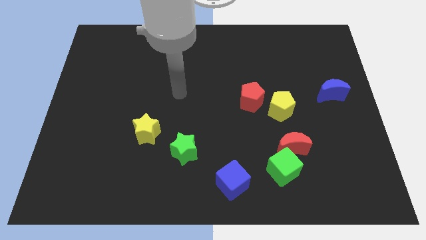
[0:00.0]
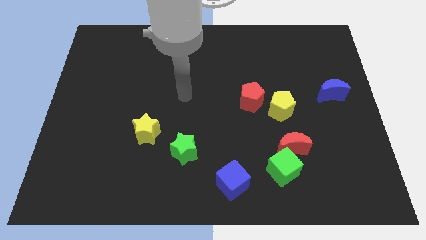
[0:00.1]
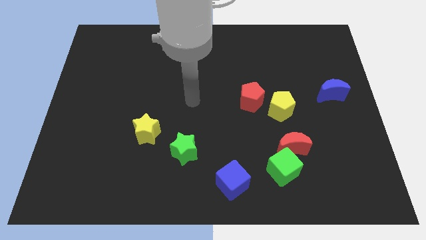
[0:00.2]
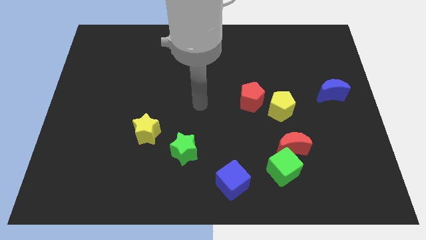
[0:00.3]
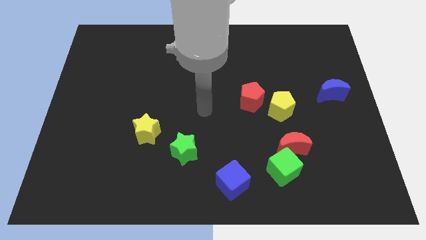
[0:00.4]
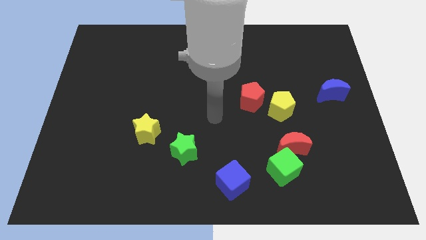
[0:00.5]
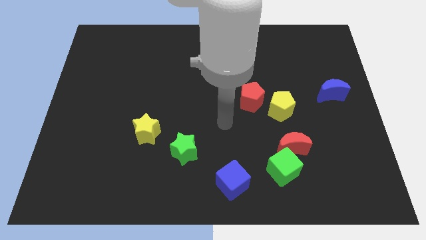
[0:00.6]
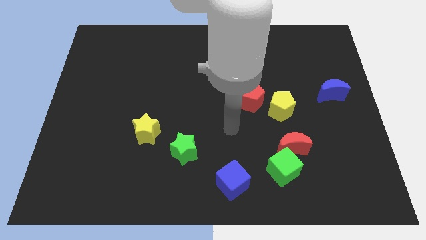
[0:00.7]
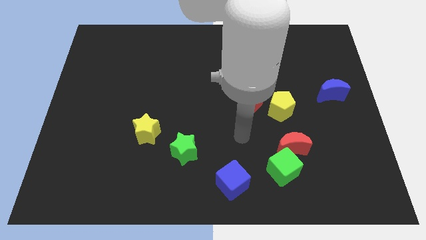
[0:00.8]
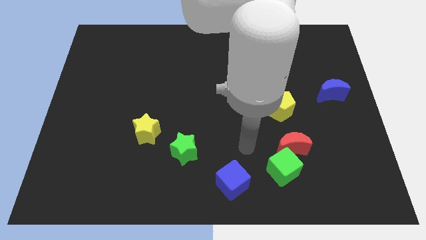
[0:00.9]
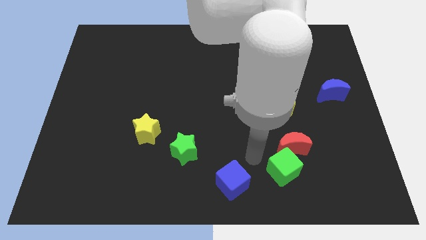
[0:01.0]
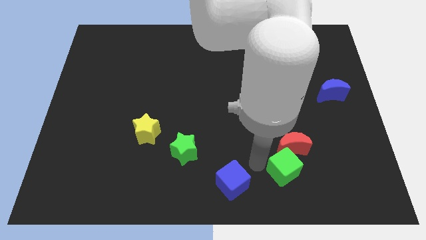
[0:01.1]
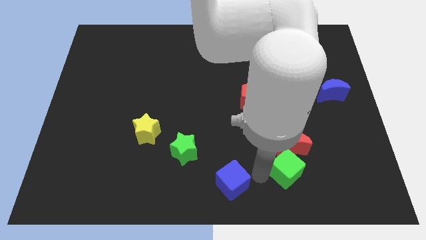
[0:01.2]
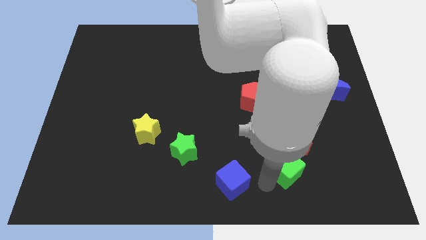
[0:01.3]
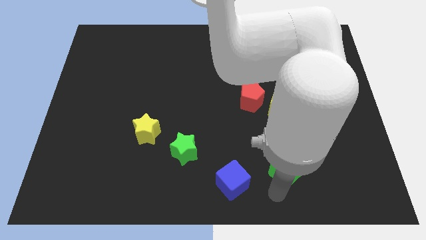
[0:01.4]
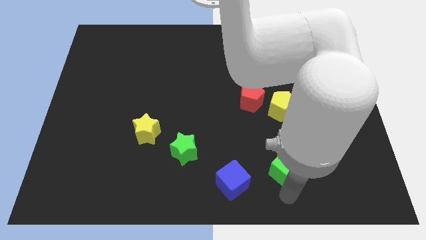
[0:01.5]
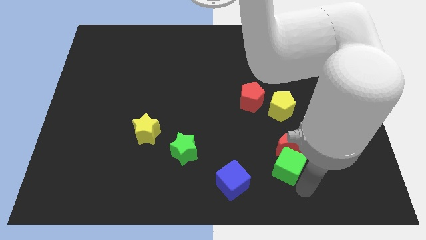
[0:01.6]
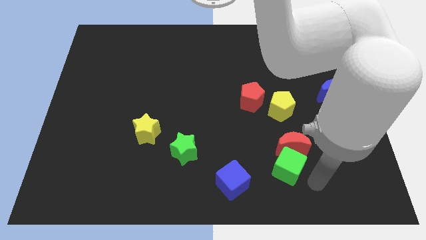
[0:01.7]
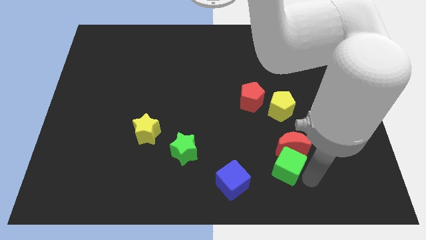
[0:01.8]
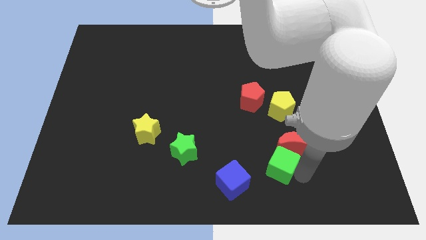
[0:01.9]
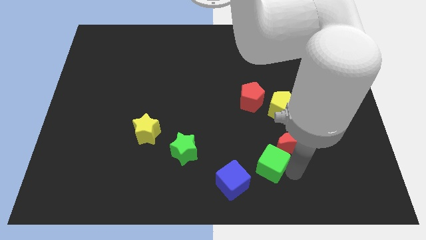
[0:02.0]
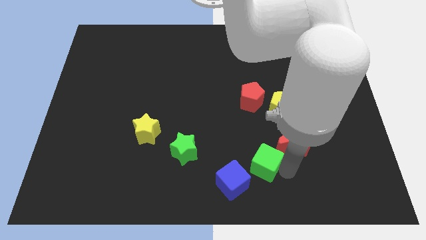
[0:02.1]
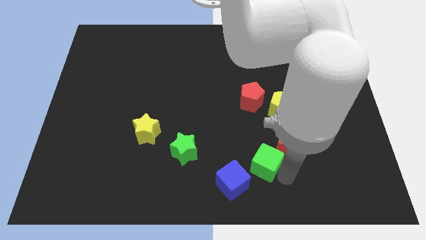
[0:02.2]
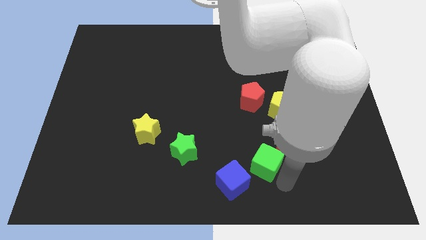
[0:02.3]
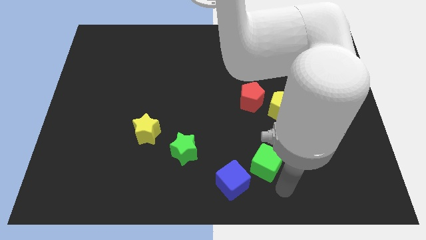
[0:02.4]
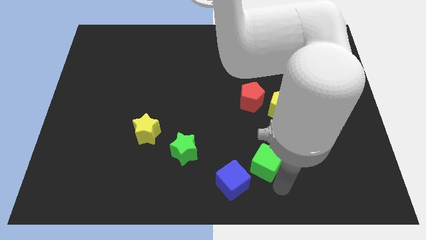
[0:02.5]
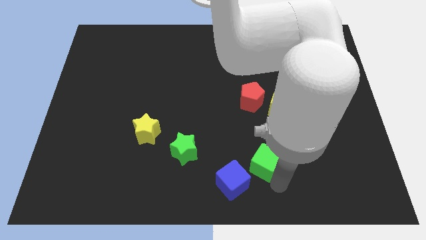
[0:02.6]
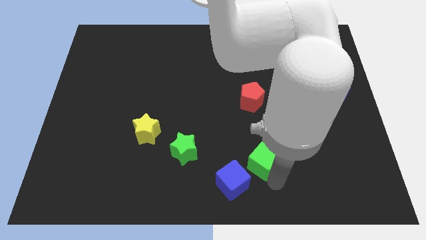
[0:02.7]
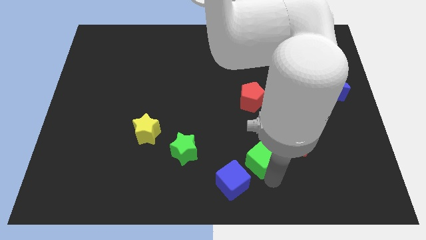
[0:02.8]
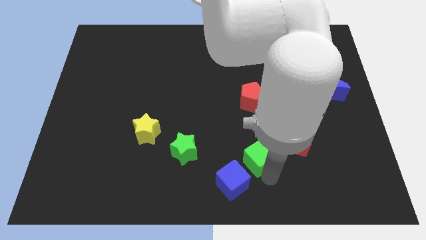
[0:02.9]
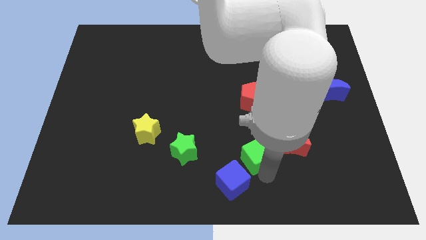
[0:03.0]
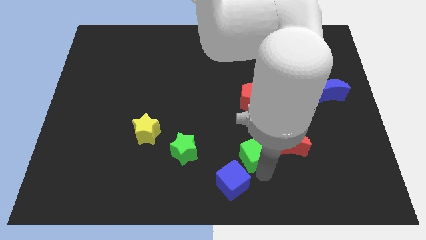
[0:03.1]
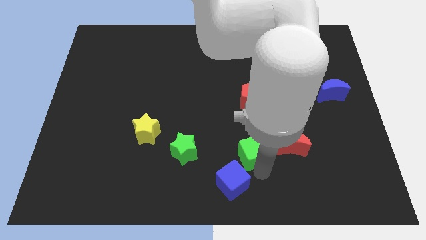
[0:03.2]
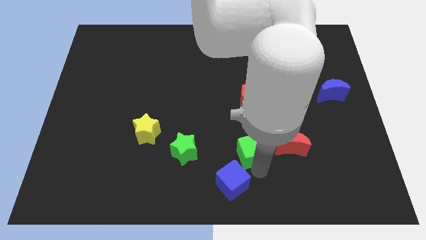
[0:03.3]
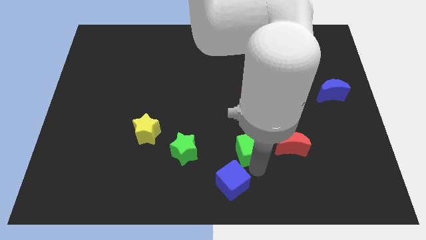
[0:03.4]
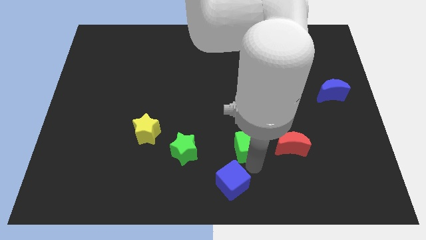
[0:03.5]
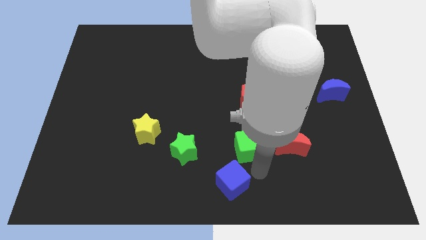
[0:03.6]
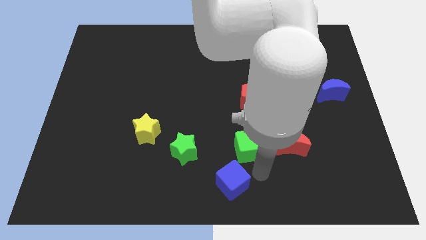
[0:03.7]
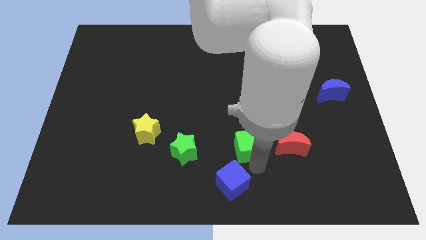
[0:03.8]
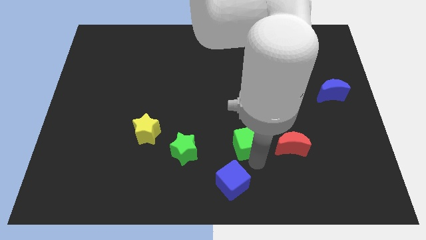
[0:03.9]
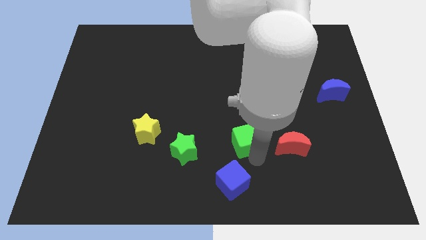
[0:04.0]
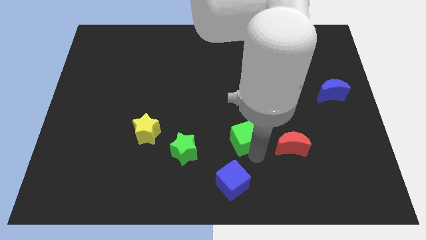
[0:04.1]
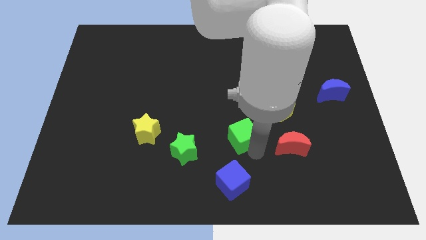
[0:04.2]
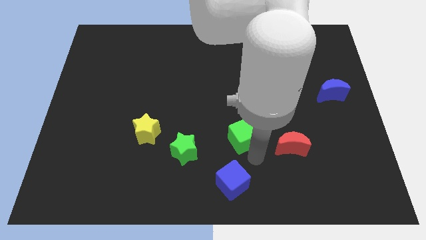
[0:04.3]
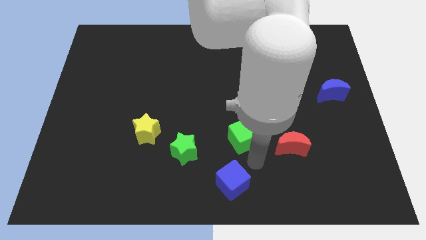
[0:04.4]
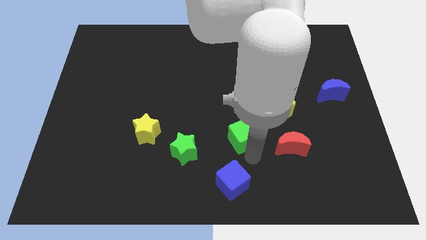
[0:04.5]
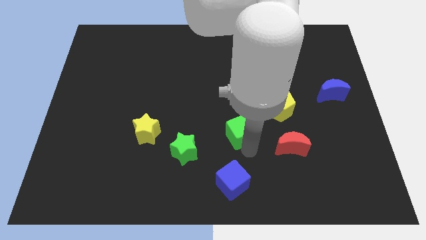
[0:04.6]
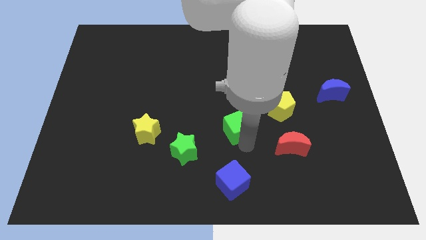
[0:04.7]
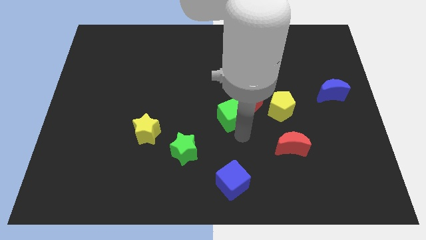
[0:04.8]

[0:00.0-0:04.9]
push the green cube to the left of the red pentagon

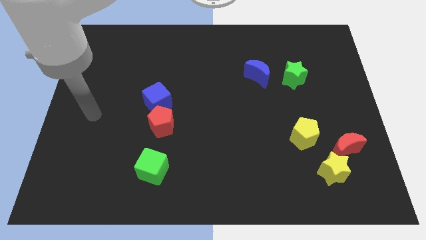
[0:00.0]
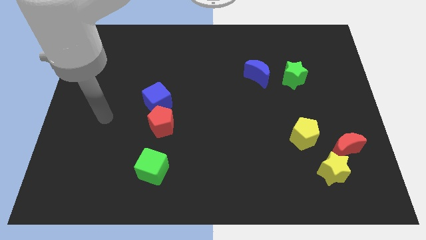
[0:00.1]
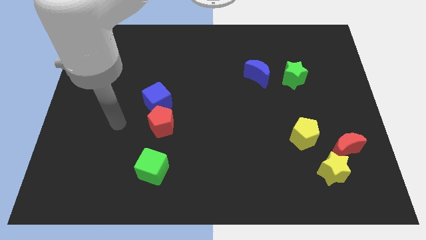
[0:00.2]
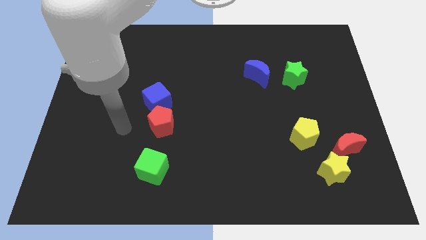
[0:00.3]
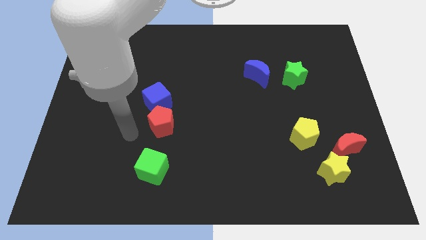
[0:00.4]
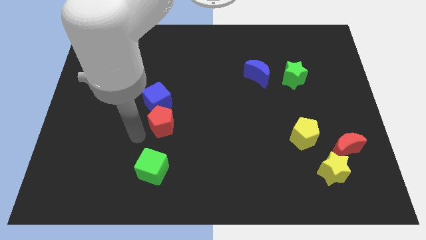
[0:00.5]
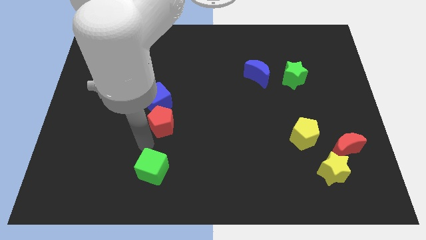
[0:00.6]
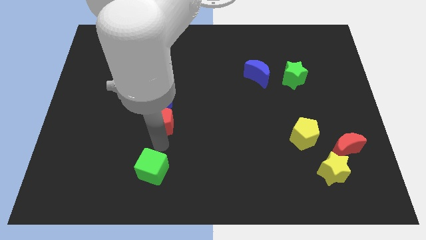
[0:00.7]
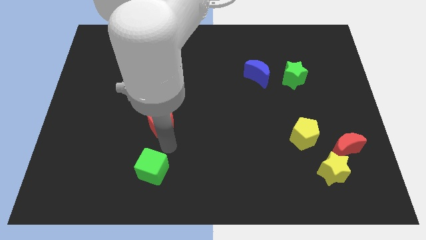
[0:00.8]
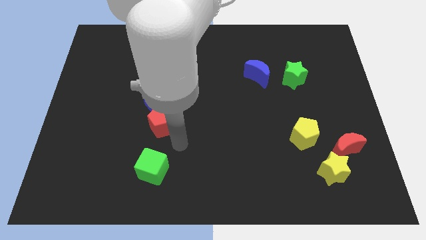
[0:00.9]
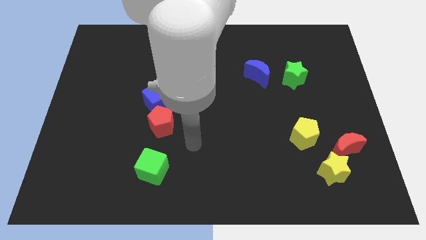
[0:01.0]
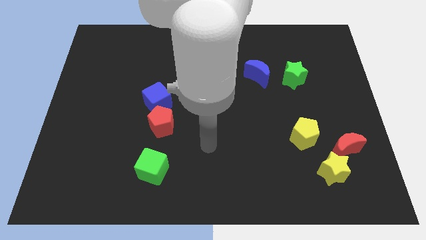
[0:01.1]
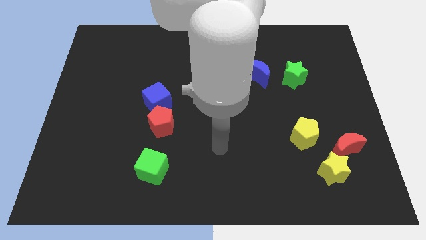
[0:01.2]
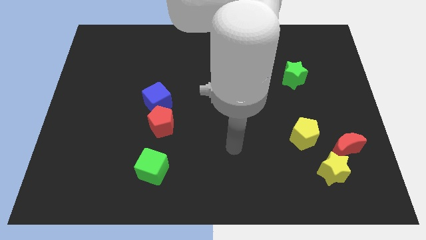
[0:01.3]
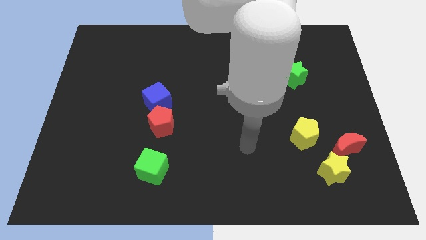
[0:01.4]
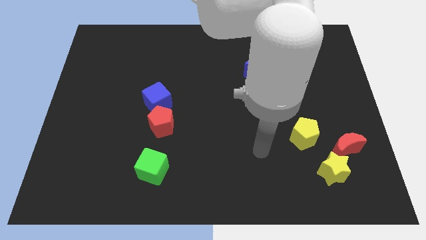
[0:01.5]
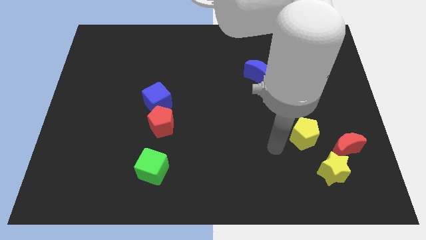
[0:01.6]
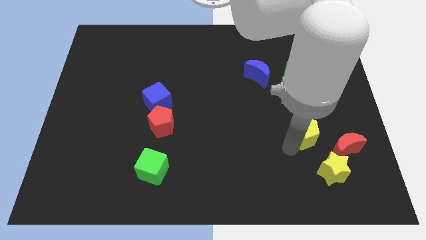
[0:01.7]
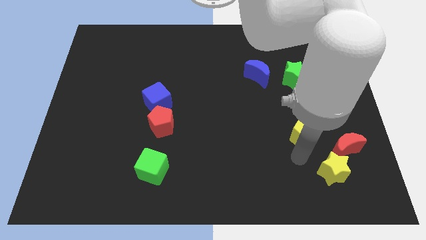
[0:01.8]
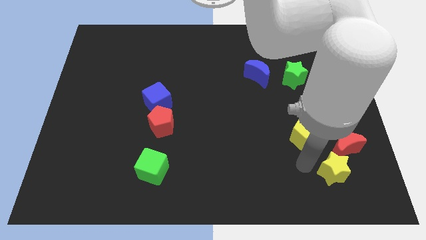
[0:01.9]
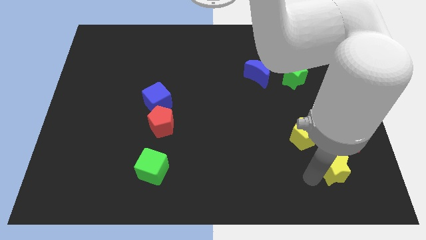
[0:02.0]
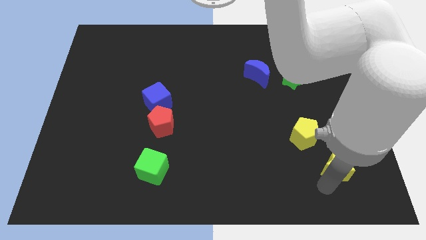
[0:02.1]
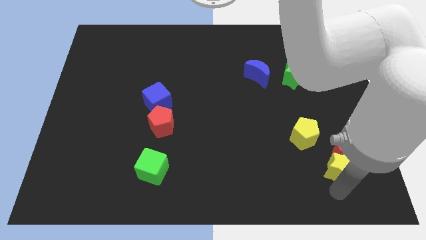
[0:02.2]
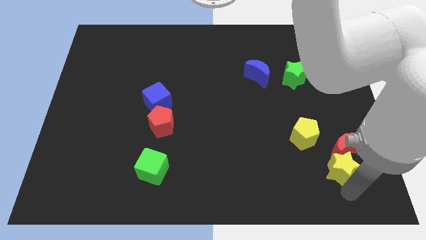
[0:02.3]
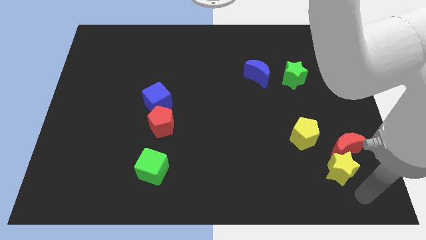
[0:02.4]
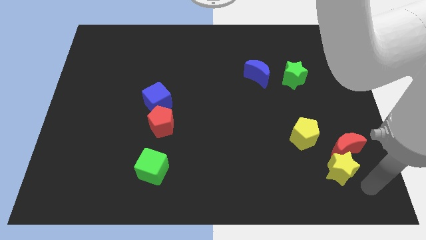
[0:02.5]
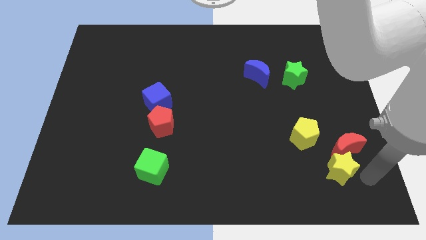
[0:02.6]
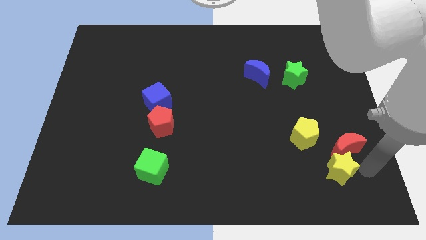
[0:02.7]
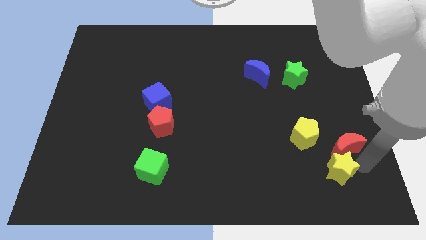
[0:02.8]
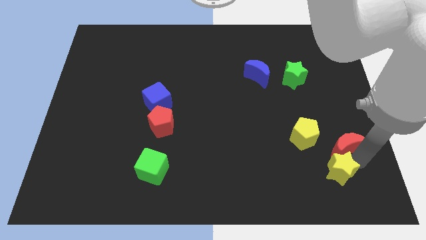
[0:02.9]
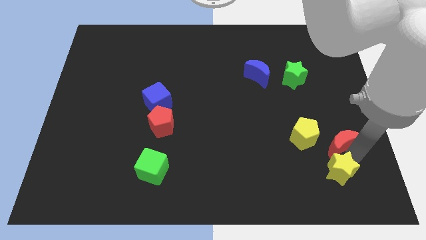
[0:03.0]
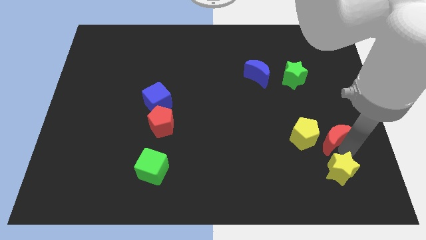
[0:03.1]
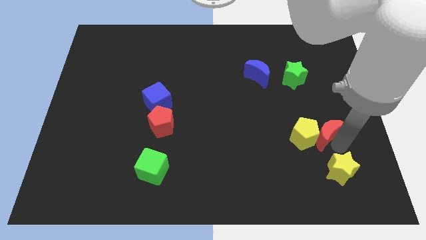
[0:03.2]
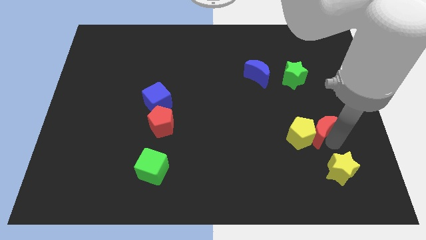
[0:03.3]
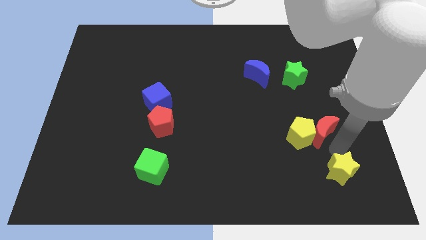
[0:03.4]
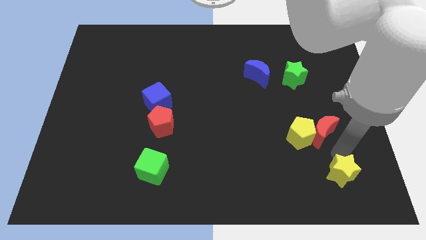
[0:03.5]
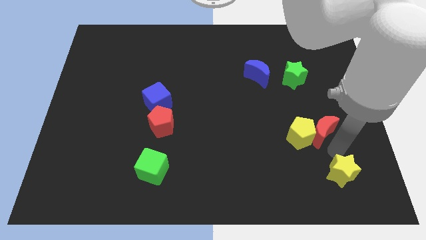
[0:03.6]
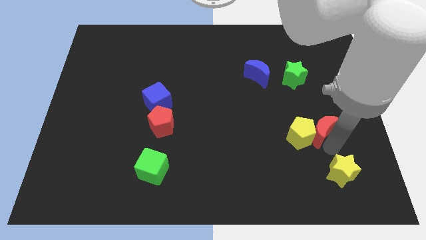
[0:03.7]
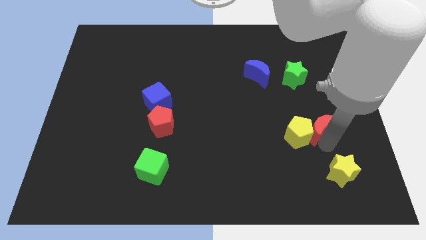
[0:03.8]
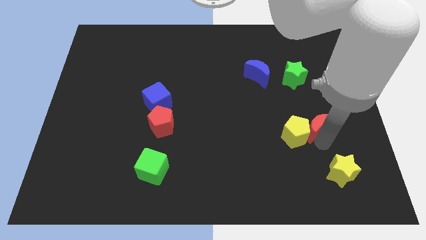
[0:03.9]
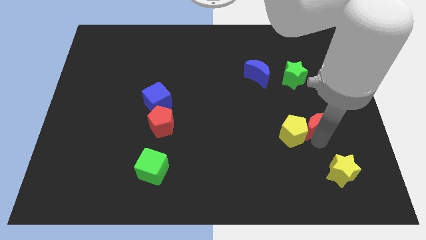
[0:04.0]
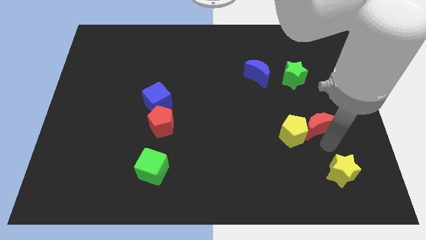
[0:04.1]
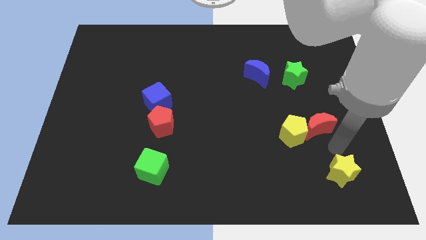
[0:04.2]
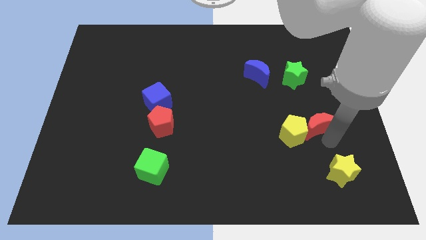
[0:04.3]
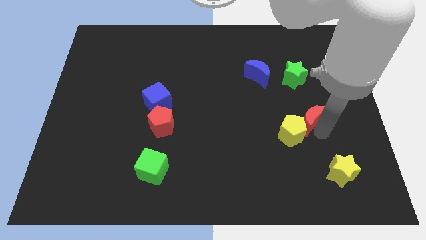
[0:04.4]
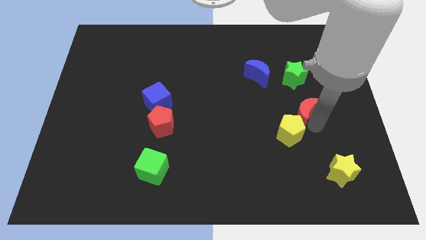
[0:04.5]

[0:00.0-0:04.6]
slide the red moon to the top side of the yellow pentagon
